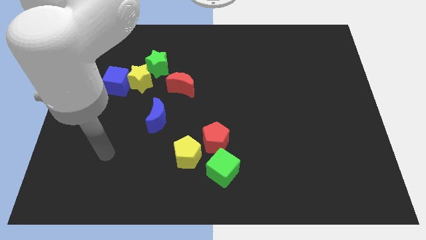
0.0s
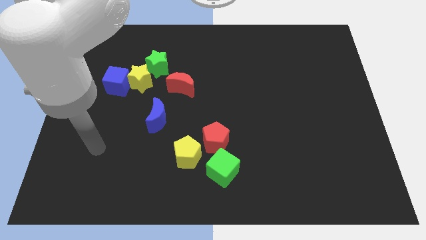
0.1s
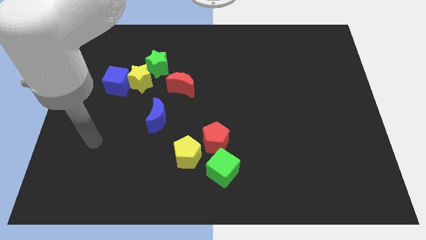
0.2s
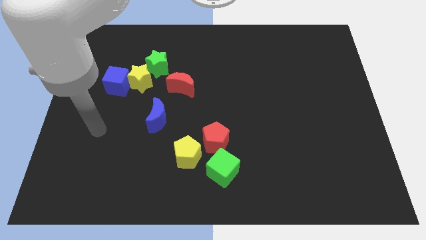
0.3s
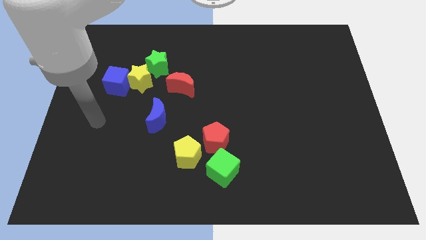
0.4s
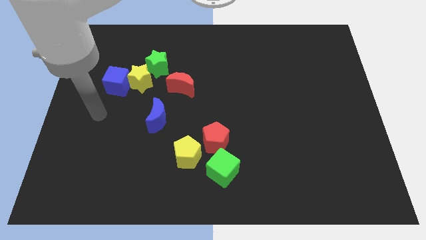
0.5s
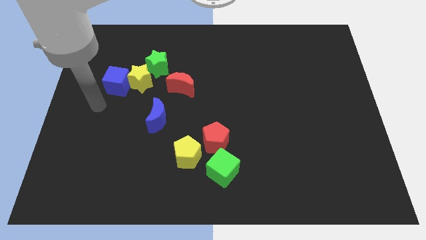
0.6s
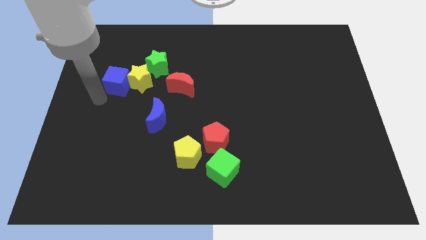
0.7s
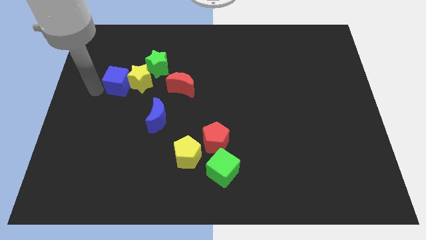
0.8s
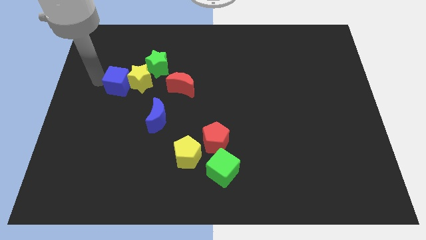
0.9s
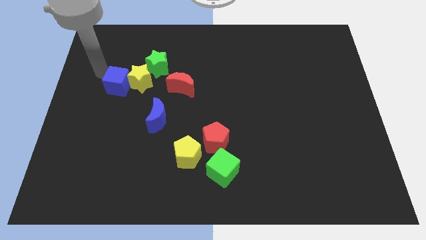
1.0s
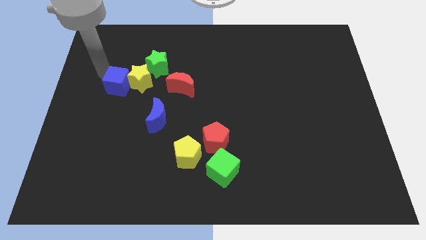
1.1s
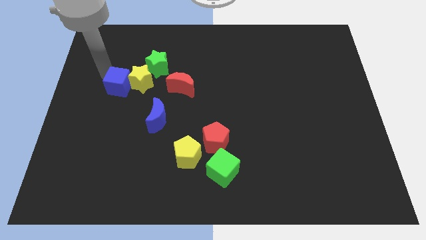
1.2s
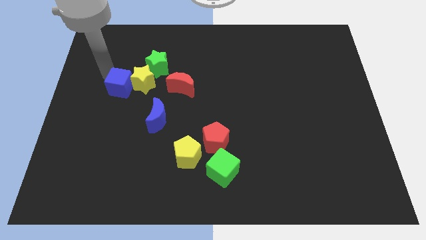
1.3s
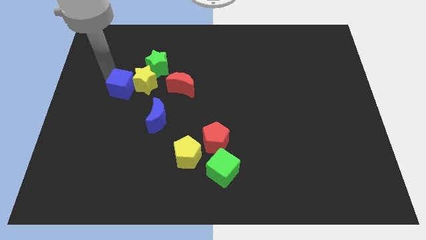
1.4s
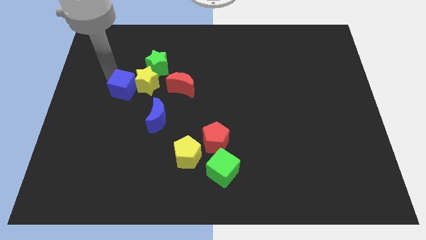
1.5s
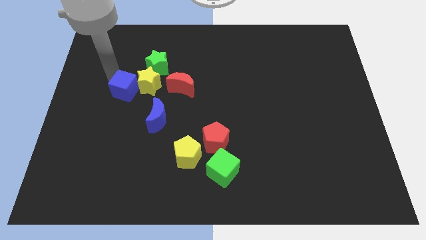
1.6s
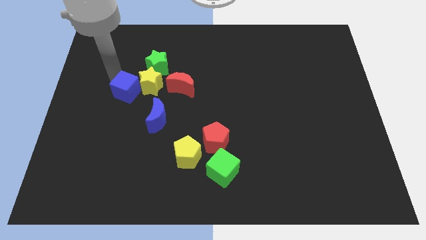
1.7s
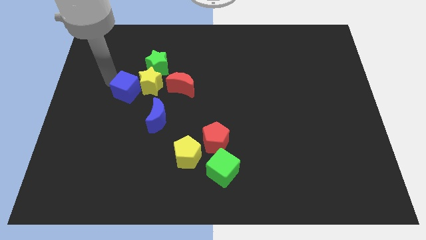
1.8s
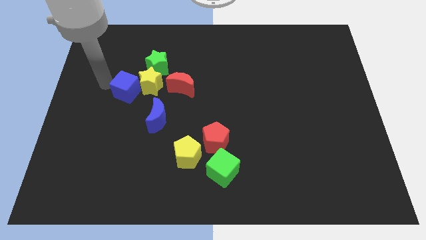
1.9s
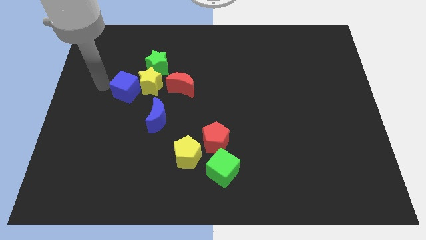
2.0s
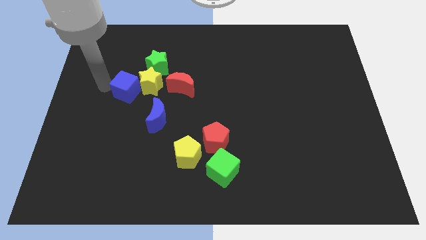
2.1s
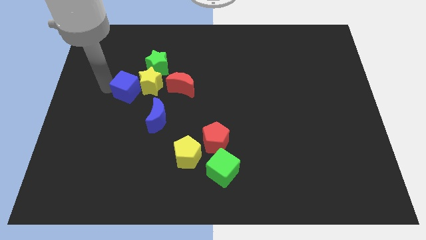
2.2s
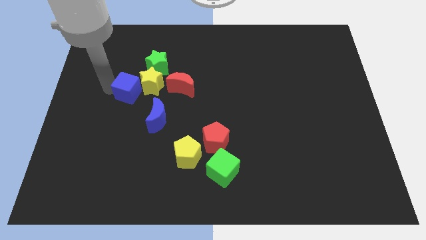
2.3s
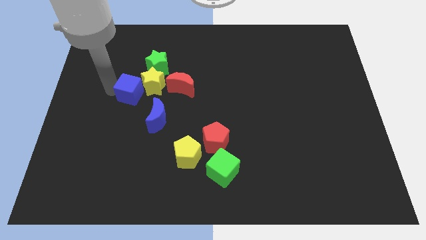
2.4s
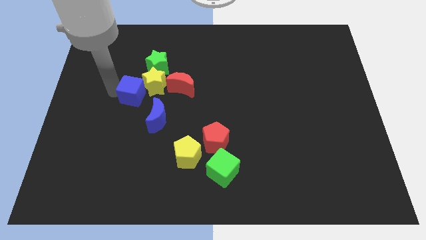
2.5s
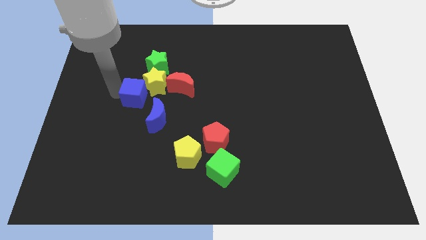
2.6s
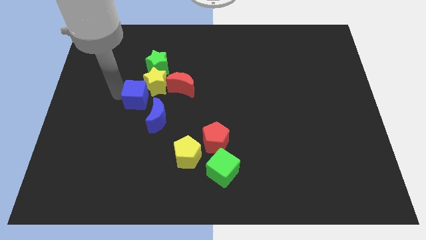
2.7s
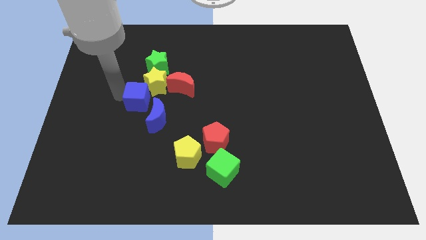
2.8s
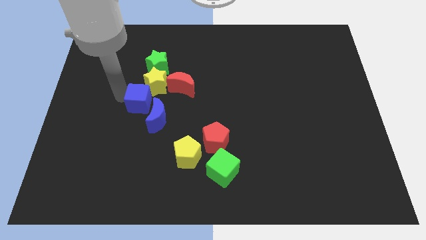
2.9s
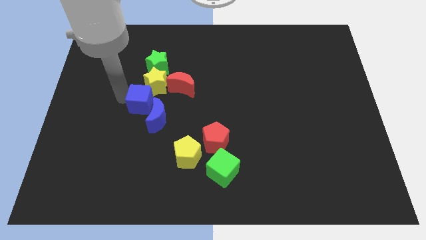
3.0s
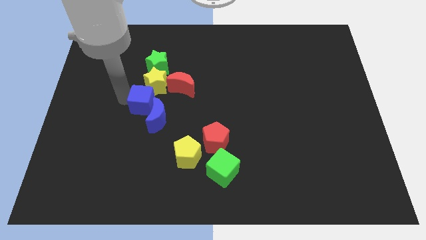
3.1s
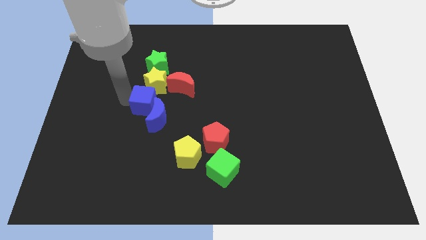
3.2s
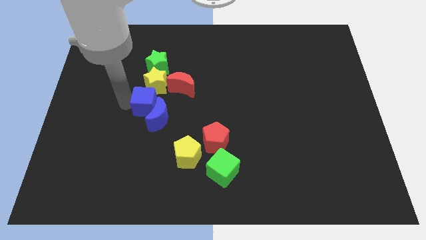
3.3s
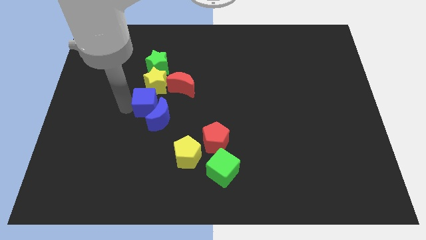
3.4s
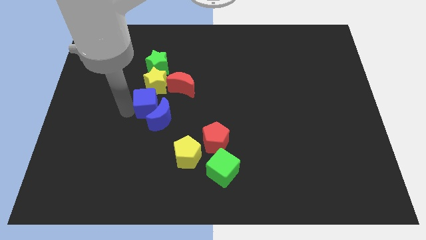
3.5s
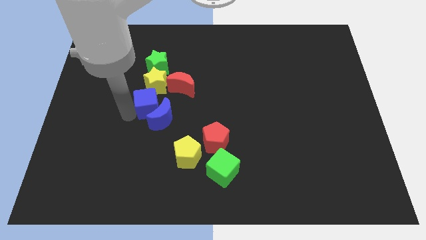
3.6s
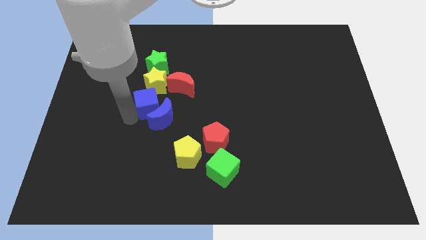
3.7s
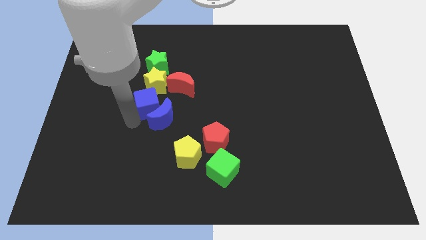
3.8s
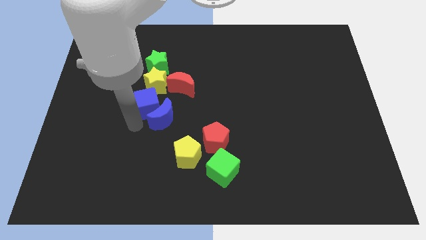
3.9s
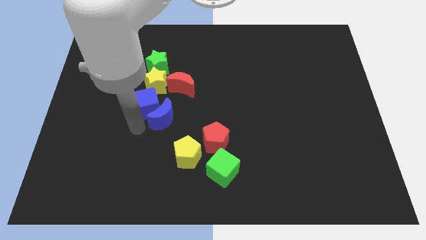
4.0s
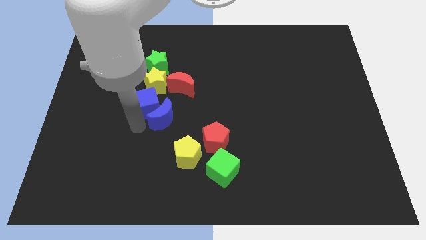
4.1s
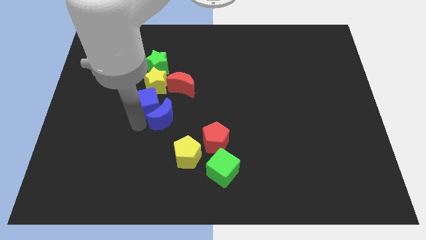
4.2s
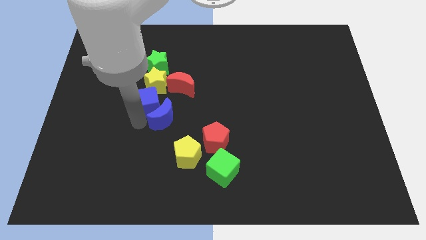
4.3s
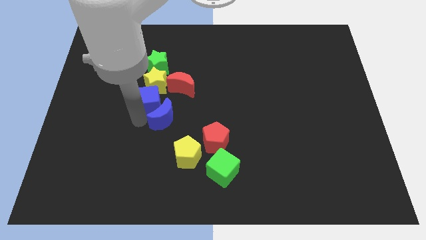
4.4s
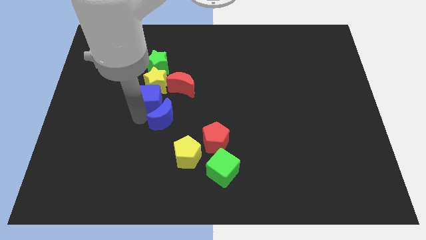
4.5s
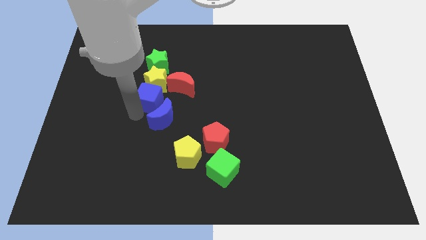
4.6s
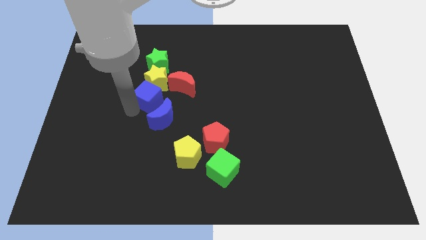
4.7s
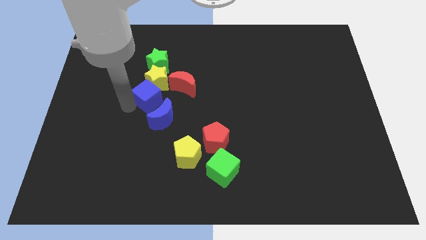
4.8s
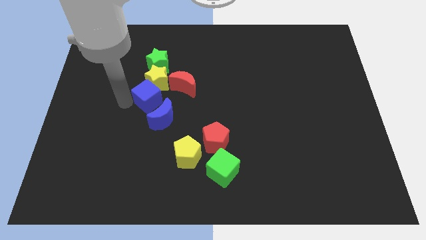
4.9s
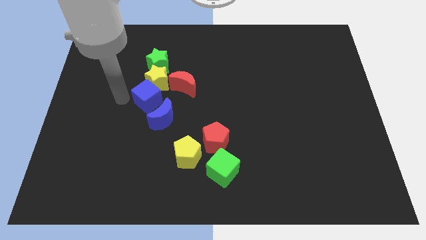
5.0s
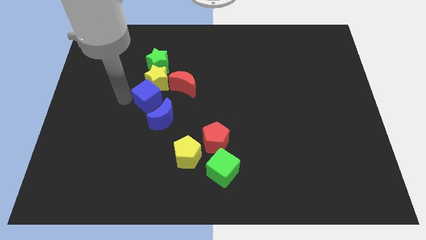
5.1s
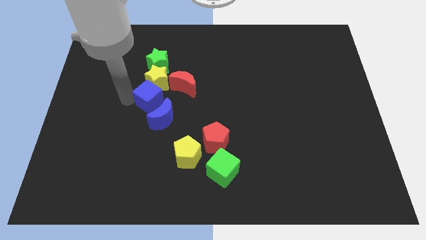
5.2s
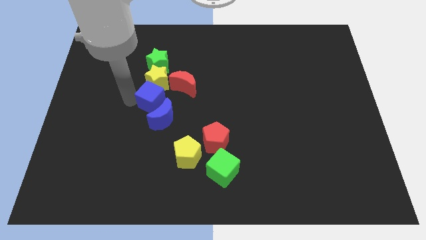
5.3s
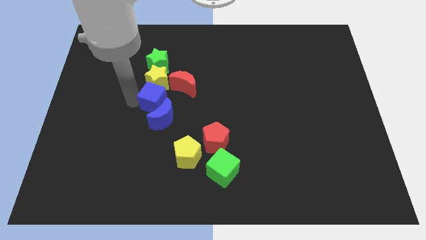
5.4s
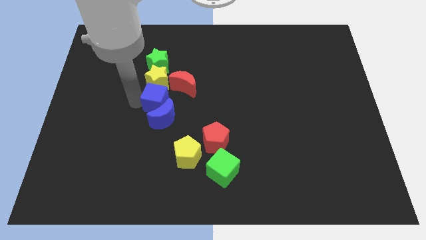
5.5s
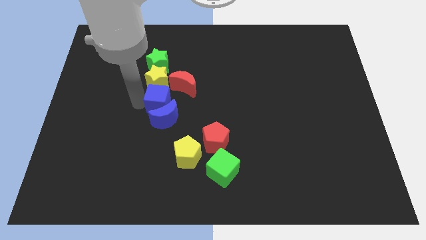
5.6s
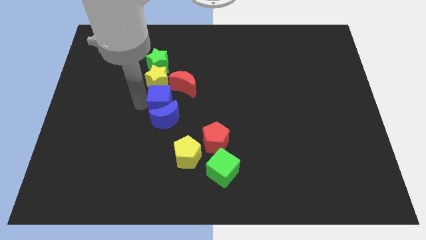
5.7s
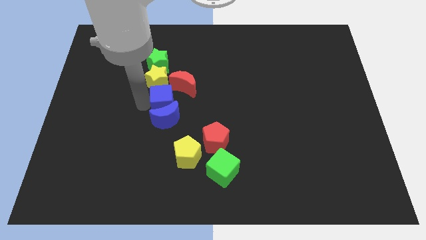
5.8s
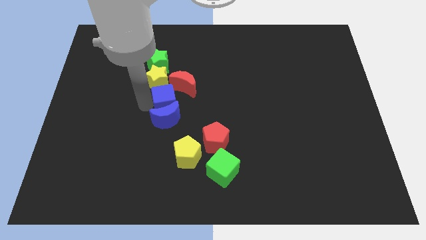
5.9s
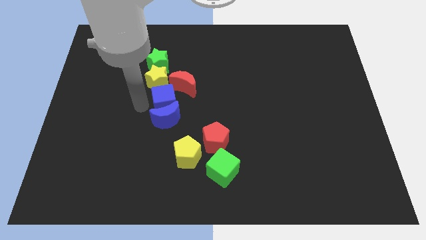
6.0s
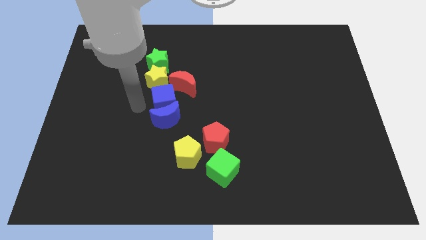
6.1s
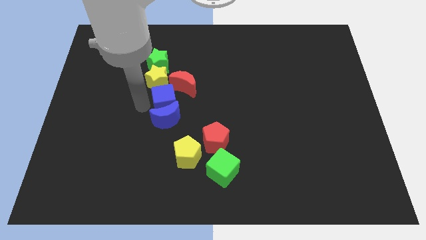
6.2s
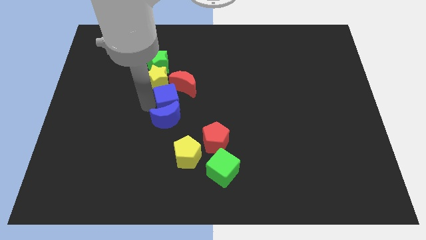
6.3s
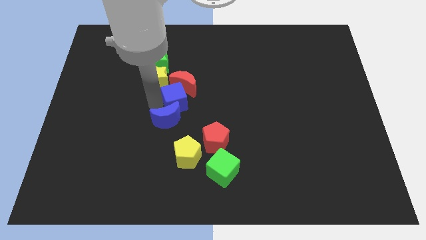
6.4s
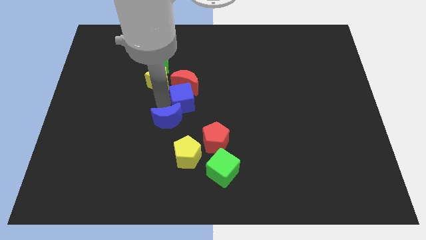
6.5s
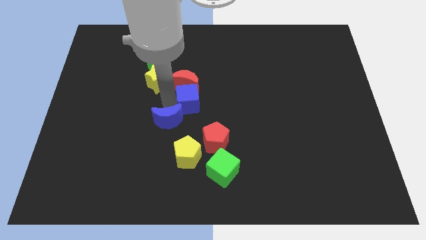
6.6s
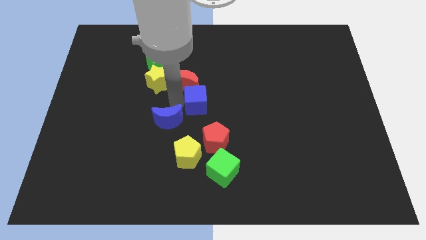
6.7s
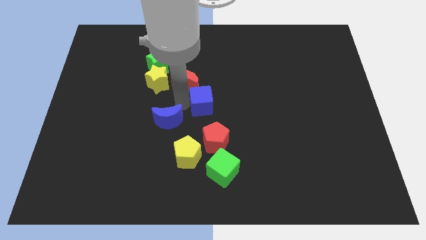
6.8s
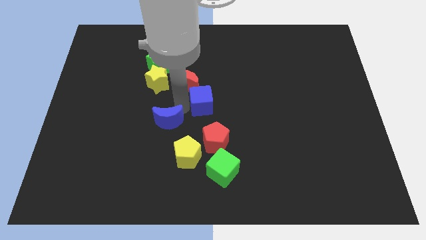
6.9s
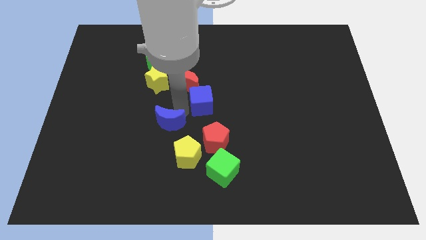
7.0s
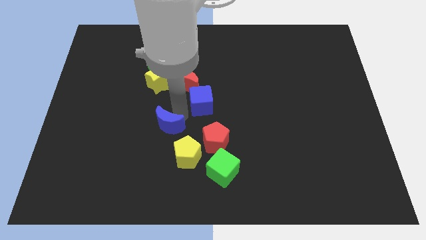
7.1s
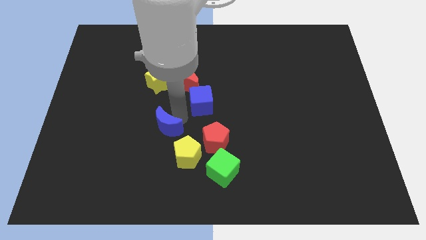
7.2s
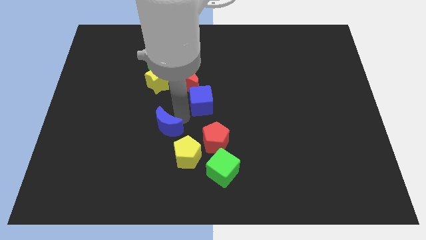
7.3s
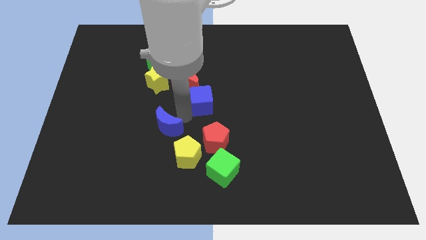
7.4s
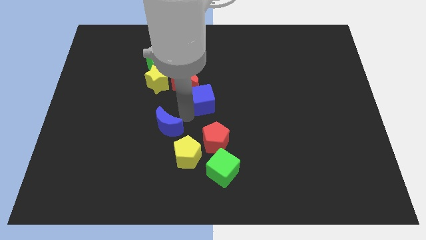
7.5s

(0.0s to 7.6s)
move the blue cube to the right

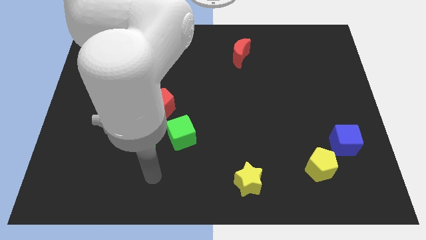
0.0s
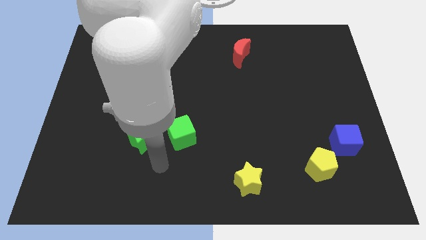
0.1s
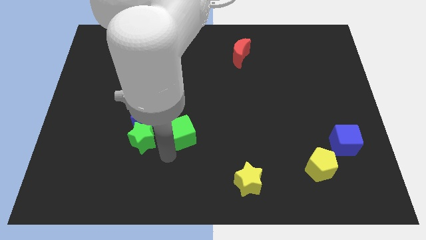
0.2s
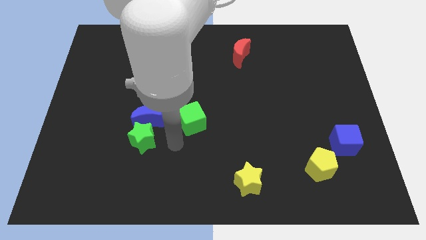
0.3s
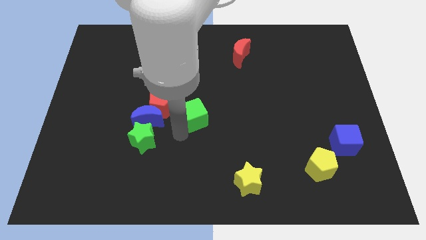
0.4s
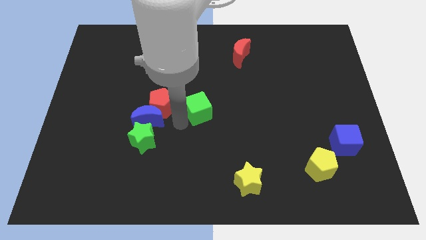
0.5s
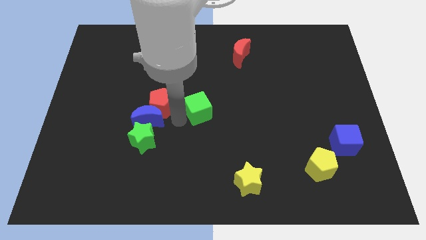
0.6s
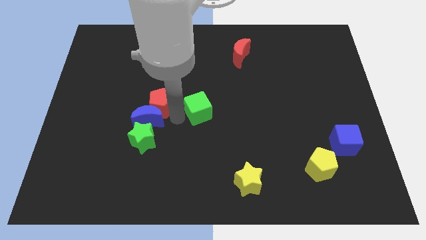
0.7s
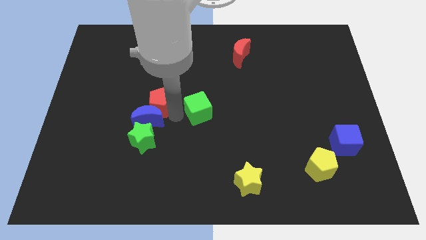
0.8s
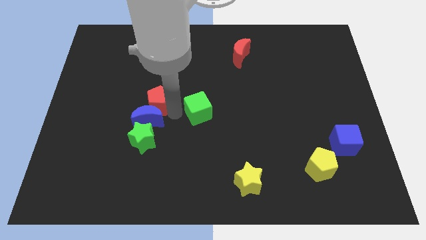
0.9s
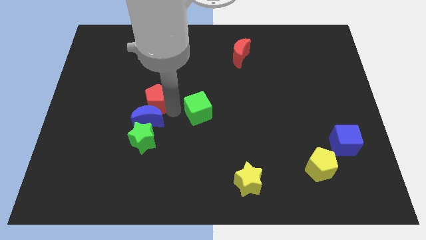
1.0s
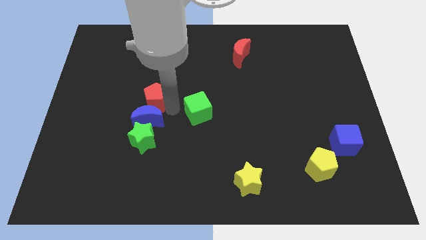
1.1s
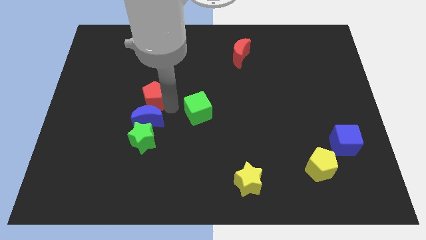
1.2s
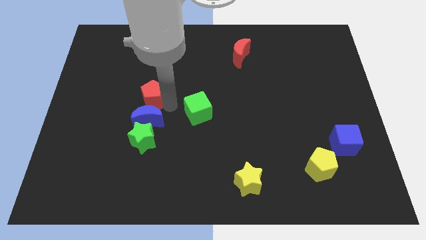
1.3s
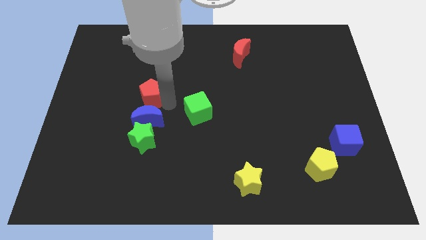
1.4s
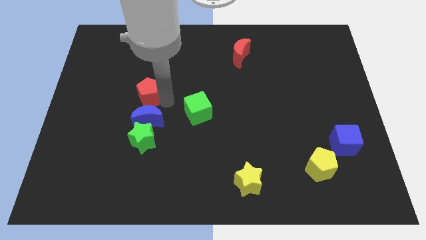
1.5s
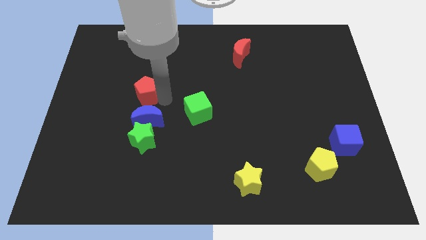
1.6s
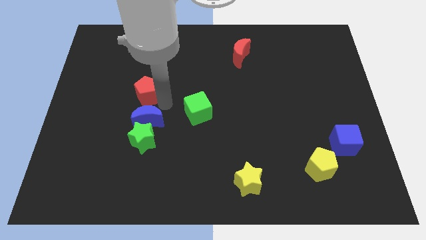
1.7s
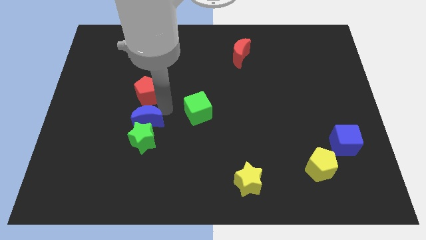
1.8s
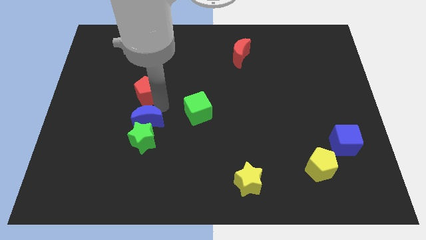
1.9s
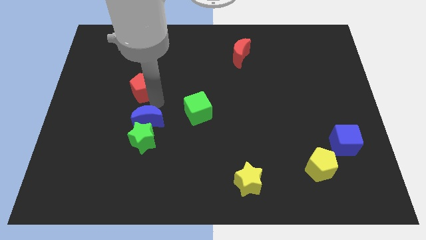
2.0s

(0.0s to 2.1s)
push the red pentagon upwards and left diagonally a little bit
